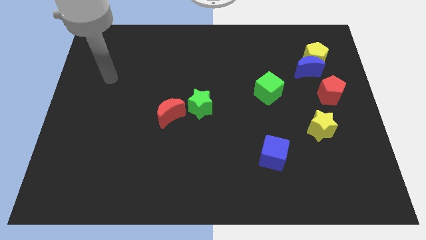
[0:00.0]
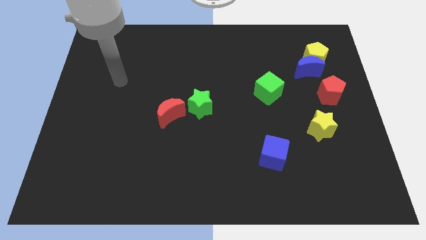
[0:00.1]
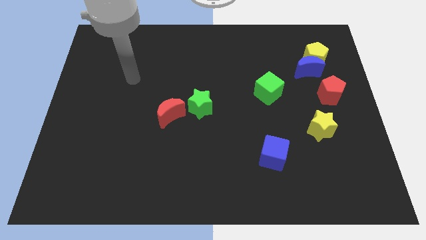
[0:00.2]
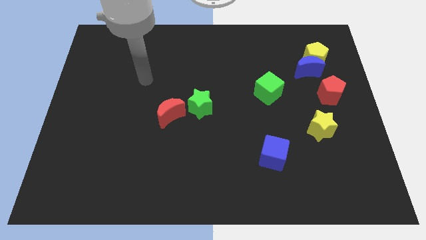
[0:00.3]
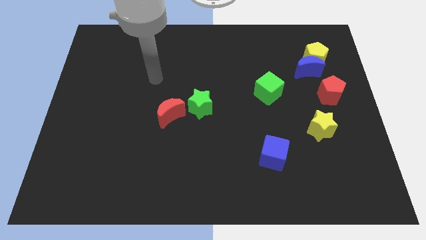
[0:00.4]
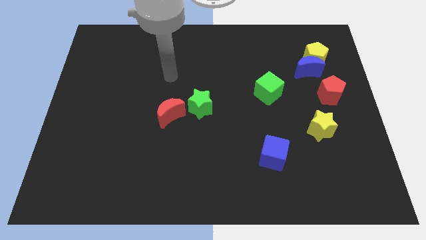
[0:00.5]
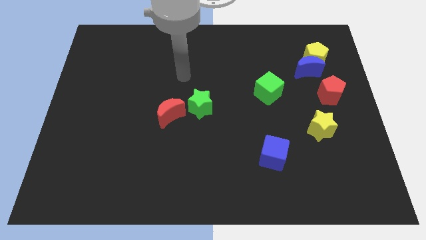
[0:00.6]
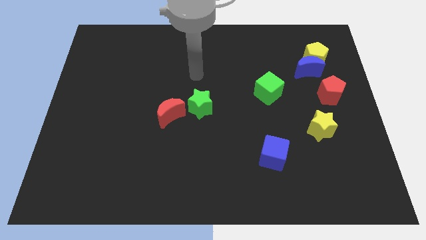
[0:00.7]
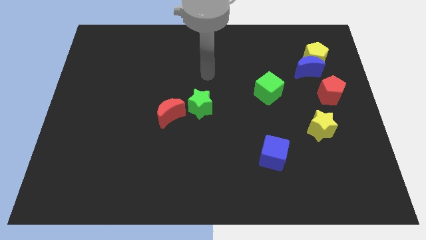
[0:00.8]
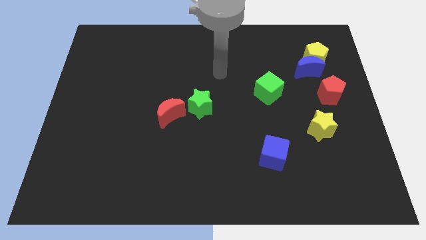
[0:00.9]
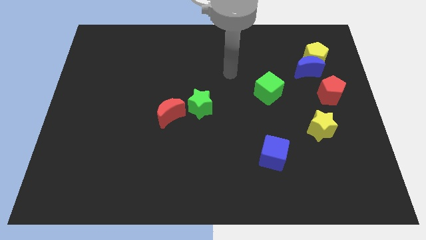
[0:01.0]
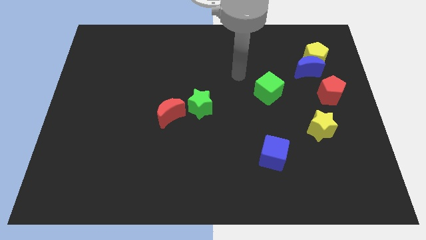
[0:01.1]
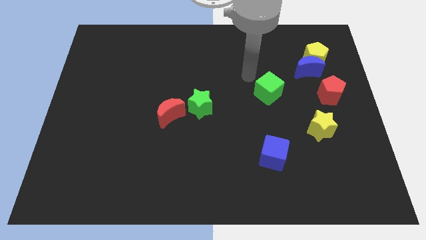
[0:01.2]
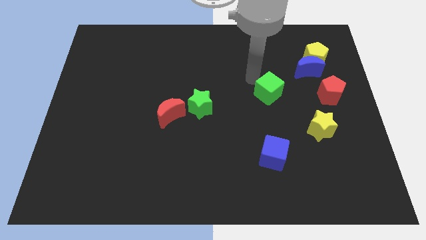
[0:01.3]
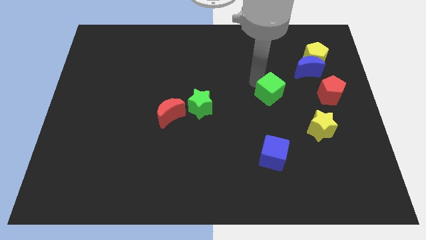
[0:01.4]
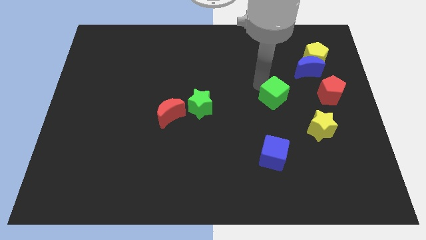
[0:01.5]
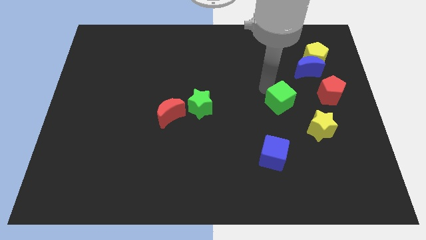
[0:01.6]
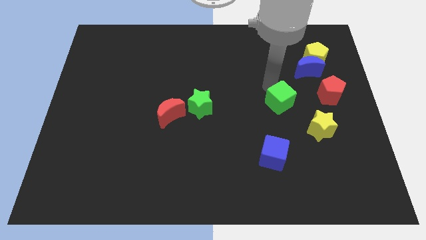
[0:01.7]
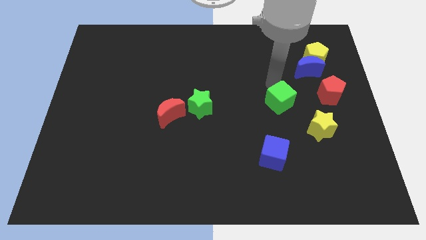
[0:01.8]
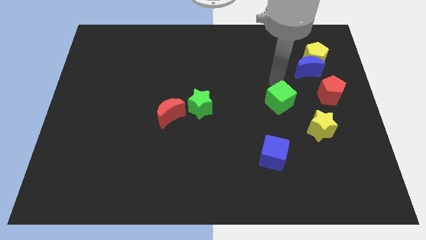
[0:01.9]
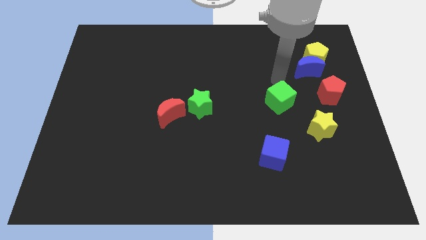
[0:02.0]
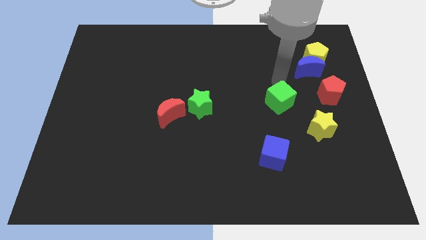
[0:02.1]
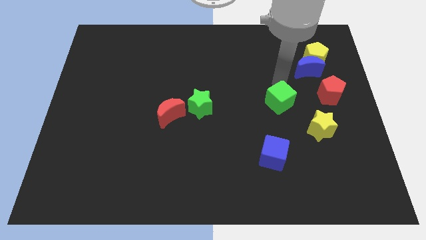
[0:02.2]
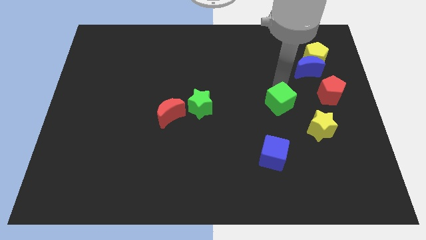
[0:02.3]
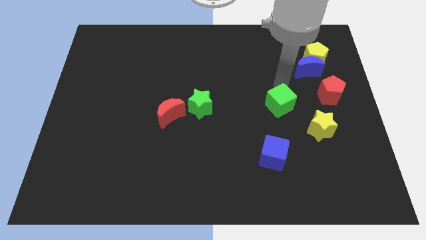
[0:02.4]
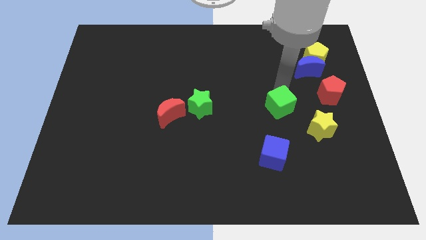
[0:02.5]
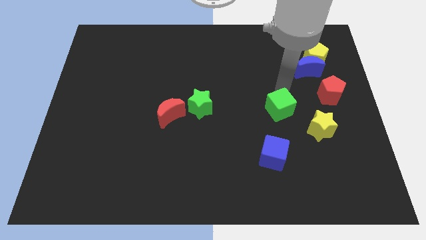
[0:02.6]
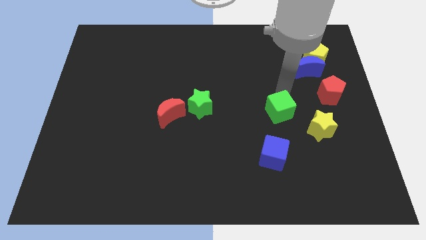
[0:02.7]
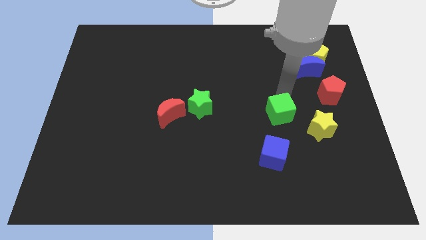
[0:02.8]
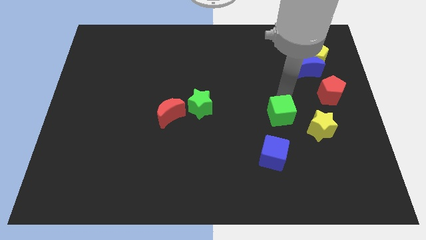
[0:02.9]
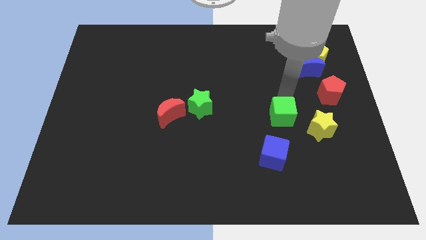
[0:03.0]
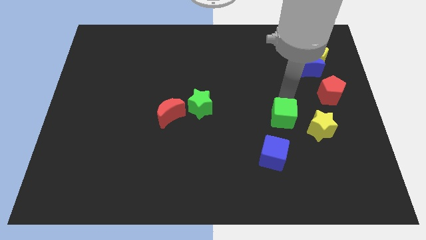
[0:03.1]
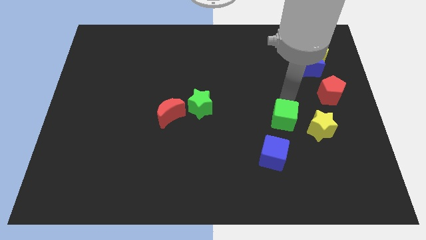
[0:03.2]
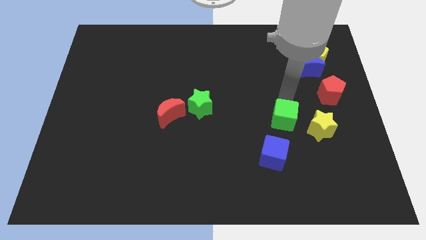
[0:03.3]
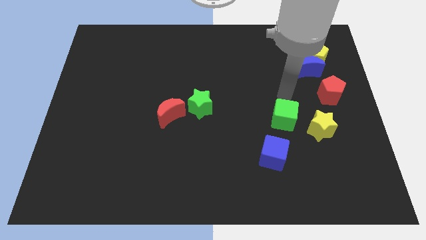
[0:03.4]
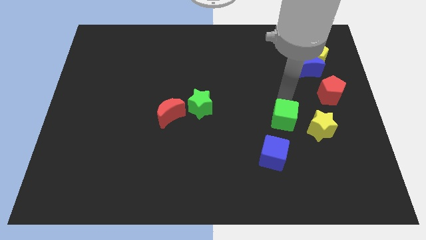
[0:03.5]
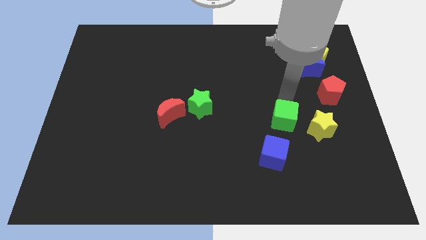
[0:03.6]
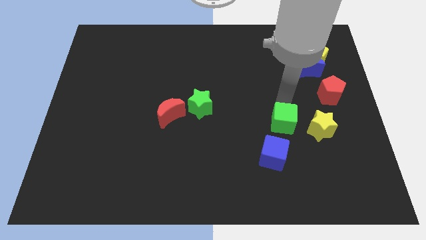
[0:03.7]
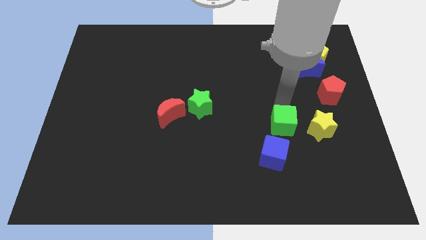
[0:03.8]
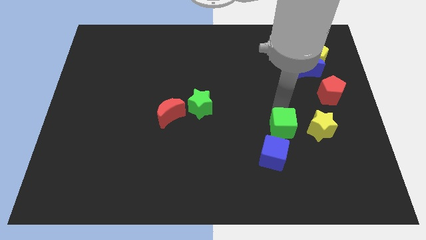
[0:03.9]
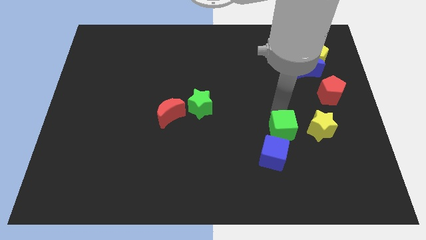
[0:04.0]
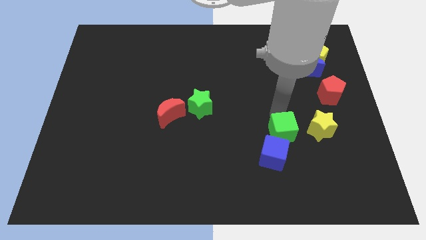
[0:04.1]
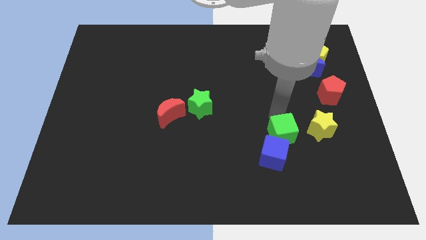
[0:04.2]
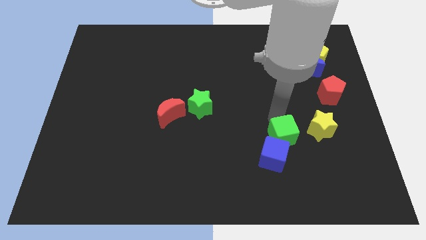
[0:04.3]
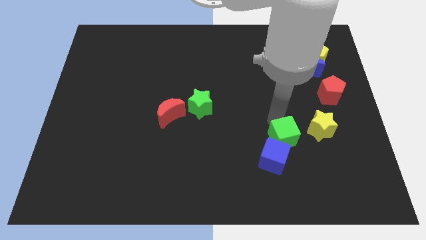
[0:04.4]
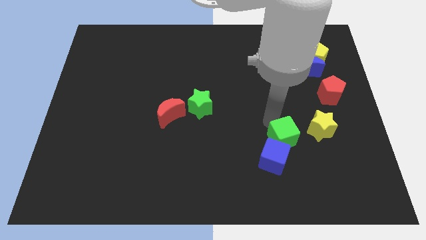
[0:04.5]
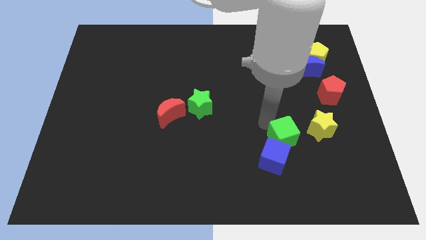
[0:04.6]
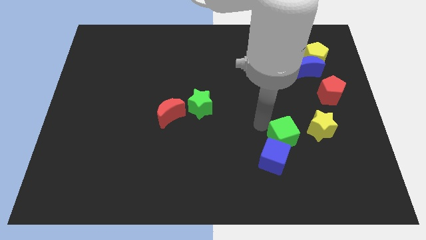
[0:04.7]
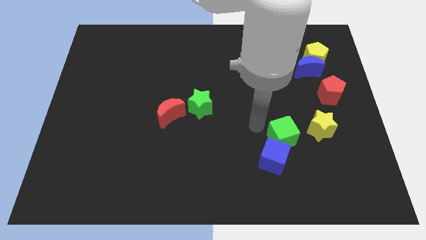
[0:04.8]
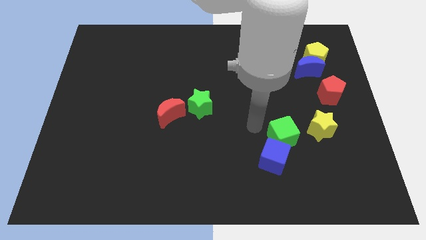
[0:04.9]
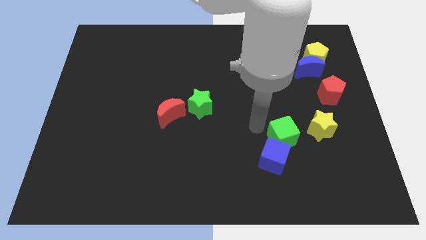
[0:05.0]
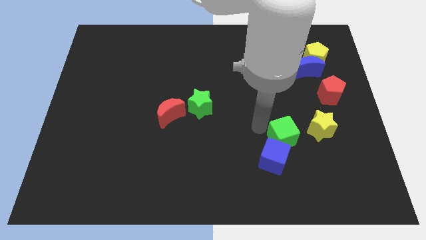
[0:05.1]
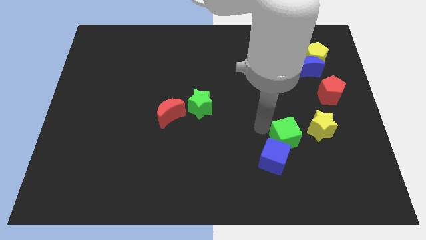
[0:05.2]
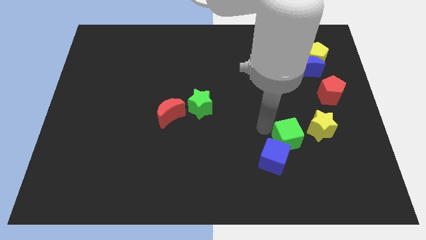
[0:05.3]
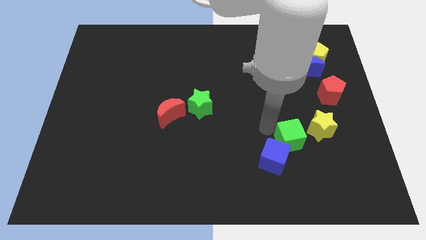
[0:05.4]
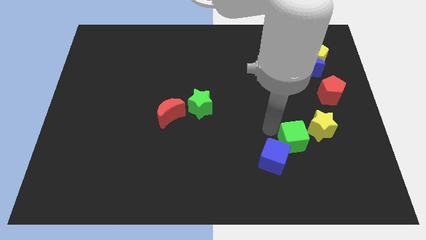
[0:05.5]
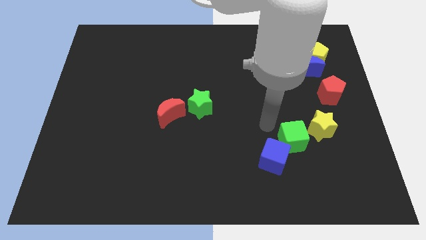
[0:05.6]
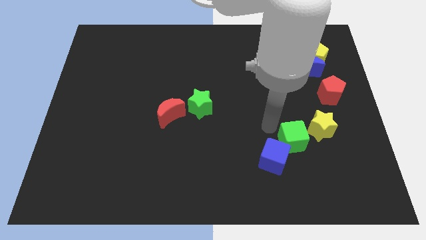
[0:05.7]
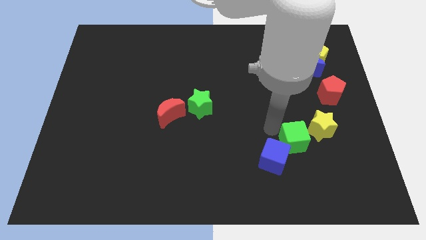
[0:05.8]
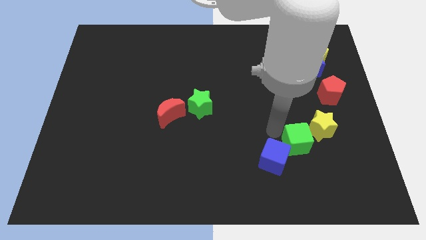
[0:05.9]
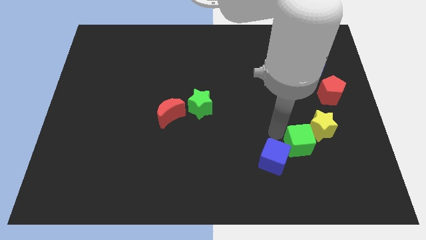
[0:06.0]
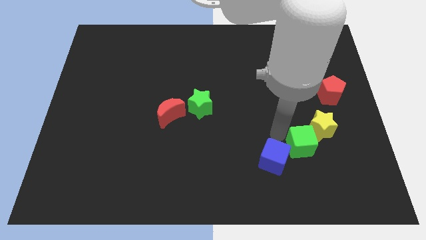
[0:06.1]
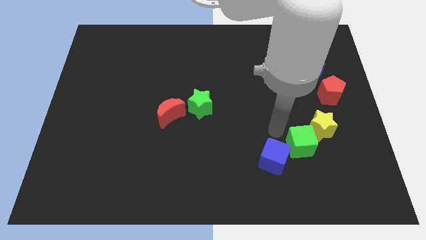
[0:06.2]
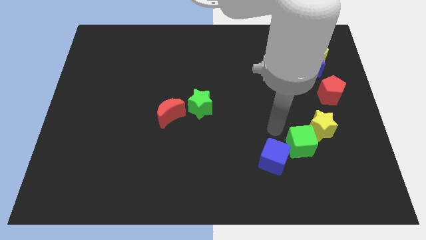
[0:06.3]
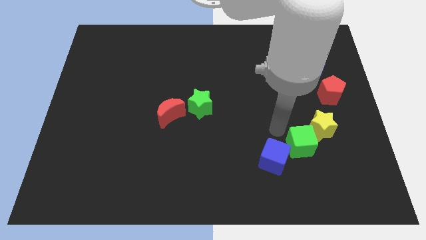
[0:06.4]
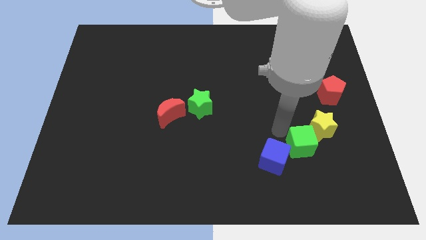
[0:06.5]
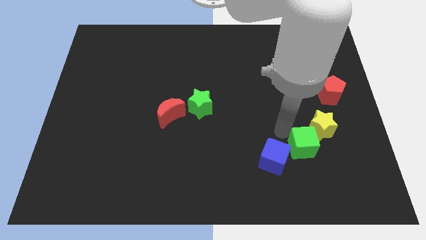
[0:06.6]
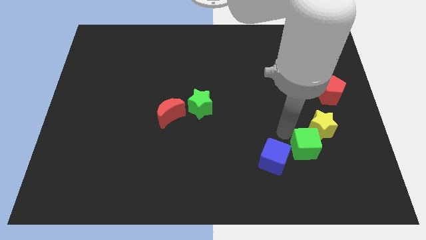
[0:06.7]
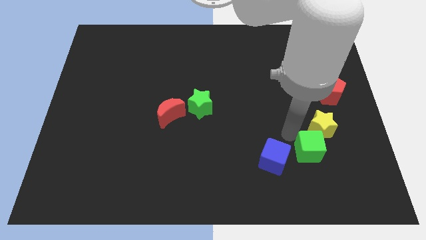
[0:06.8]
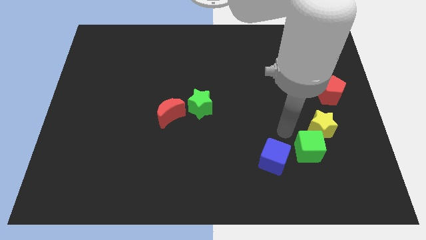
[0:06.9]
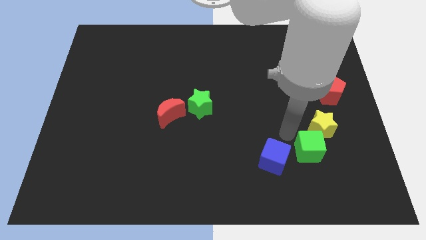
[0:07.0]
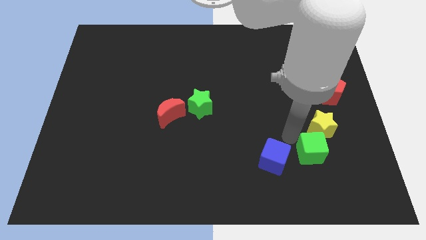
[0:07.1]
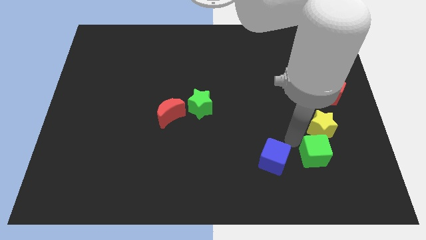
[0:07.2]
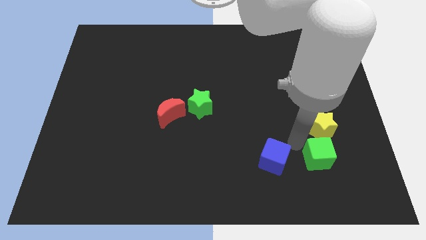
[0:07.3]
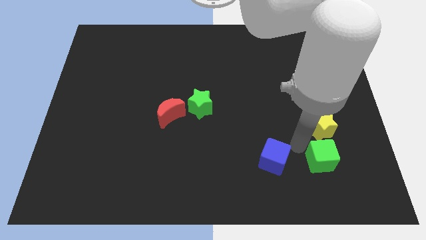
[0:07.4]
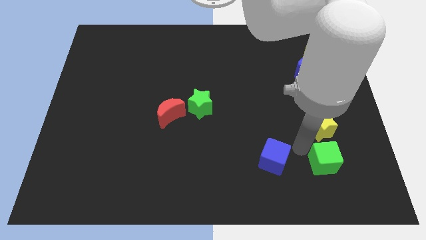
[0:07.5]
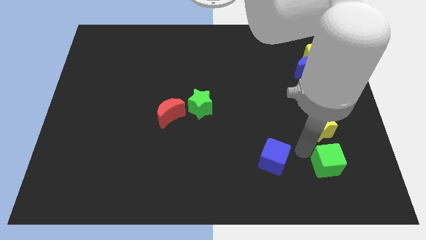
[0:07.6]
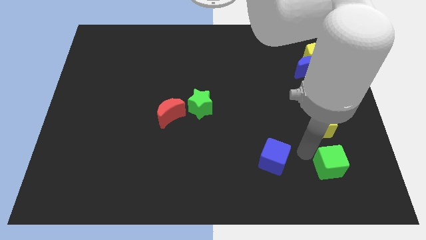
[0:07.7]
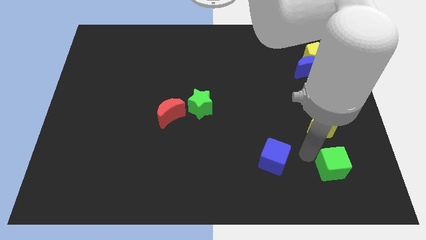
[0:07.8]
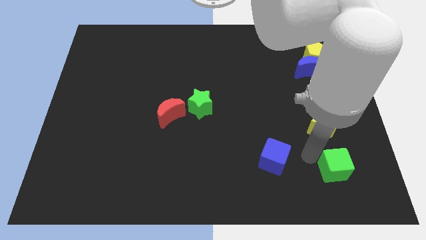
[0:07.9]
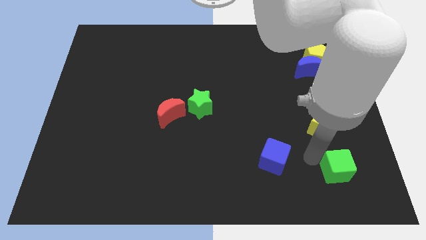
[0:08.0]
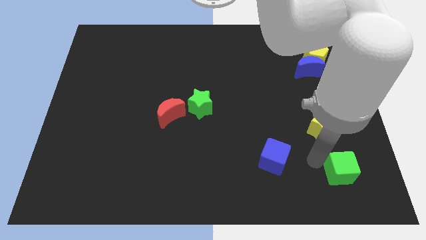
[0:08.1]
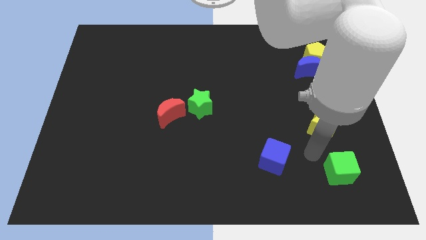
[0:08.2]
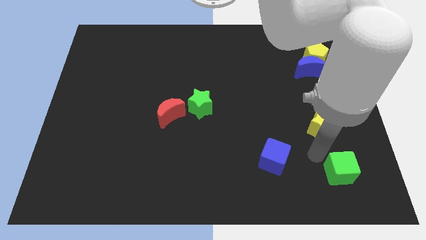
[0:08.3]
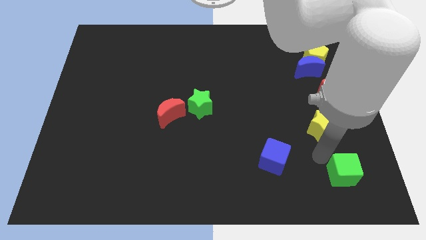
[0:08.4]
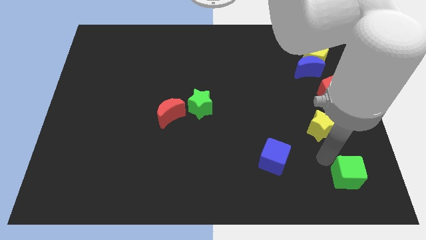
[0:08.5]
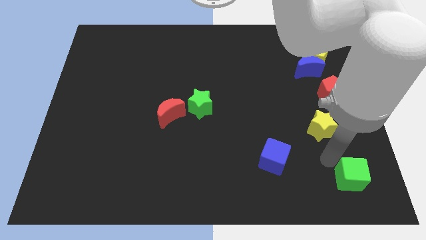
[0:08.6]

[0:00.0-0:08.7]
slide the green cube to the bottom right
